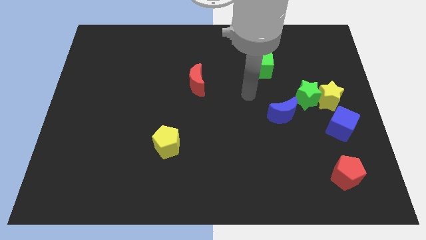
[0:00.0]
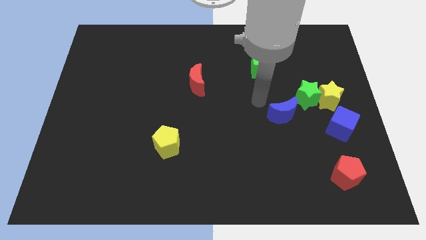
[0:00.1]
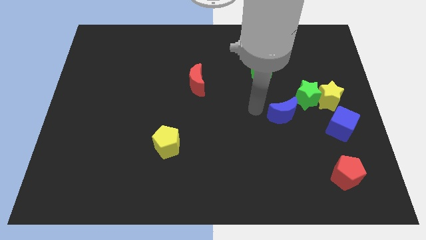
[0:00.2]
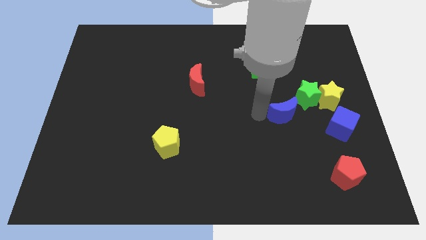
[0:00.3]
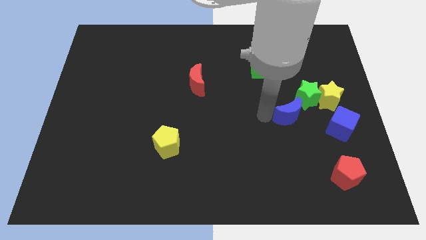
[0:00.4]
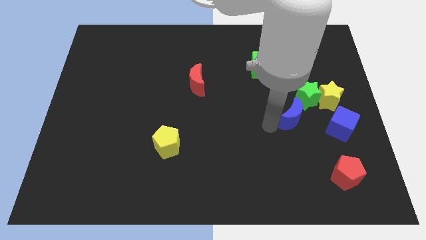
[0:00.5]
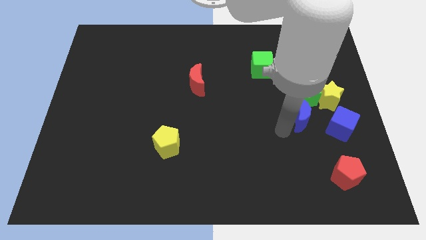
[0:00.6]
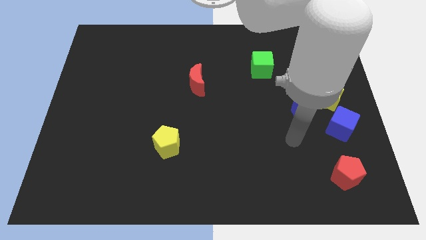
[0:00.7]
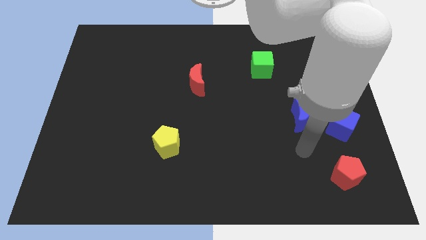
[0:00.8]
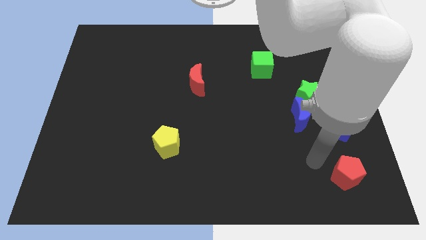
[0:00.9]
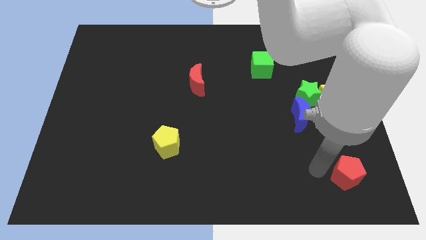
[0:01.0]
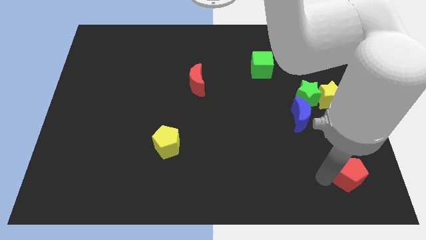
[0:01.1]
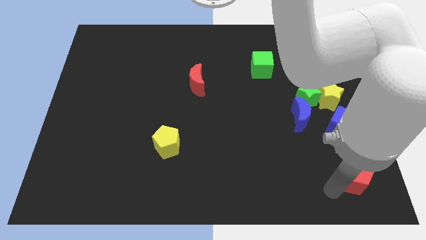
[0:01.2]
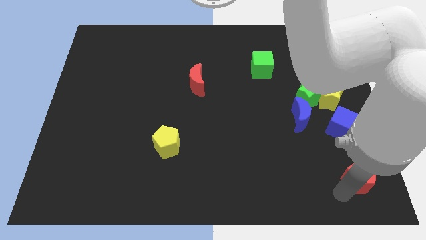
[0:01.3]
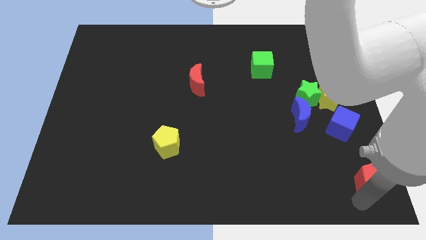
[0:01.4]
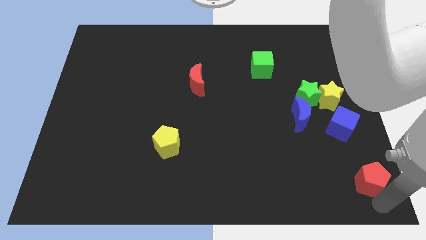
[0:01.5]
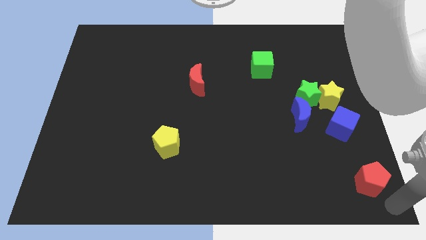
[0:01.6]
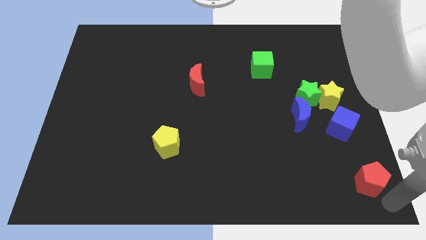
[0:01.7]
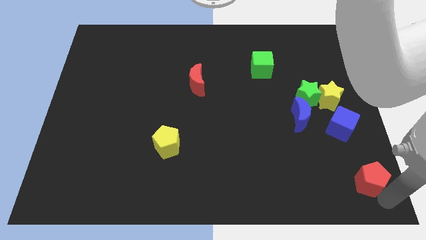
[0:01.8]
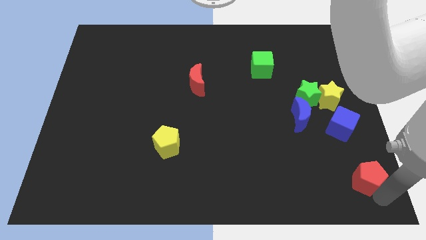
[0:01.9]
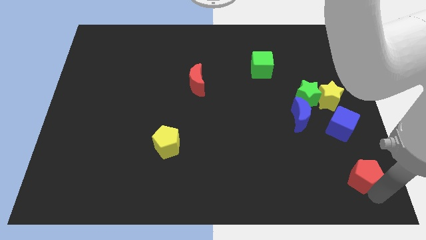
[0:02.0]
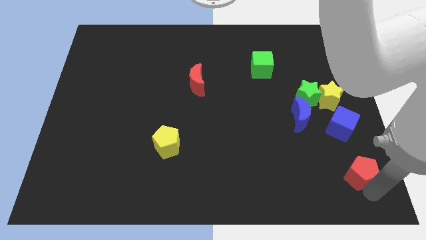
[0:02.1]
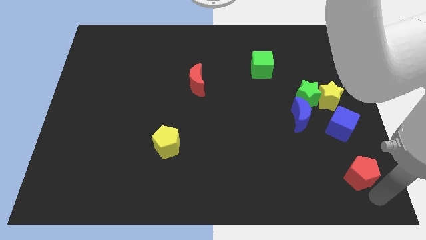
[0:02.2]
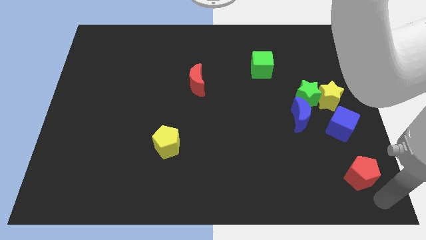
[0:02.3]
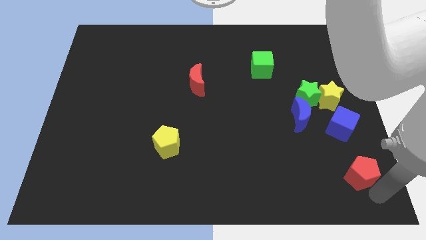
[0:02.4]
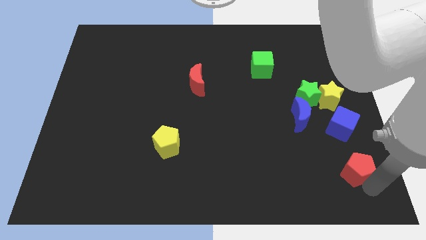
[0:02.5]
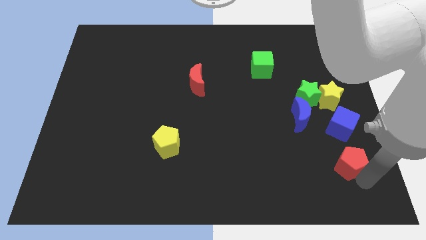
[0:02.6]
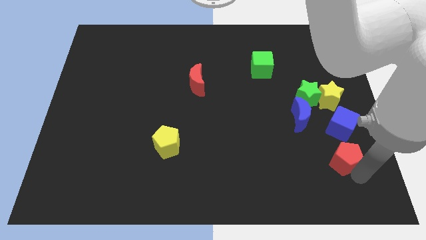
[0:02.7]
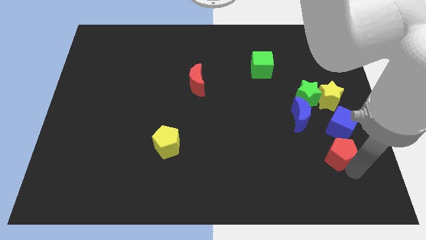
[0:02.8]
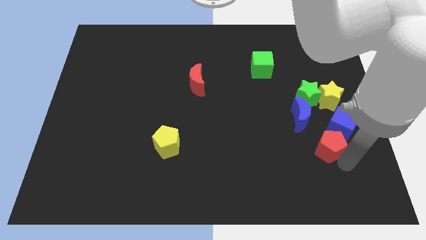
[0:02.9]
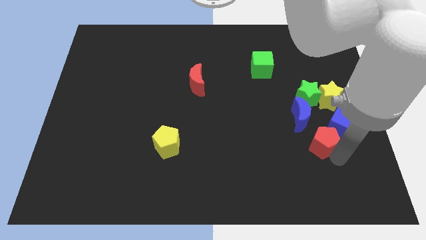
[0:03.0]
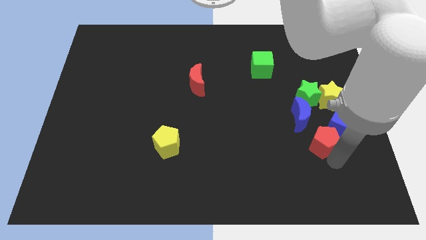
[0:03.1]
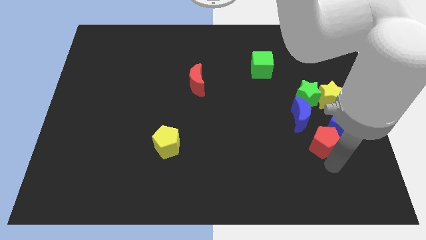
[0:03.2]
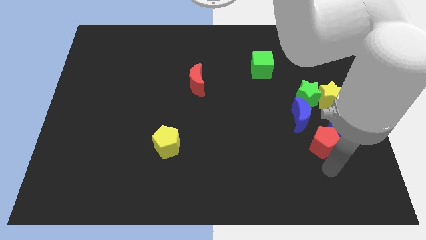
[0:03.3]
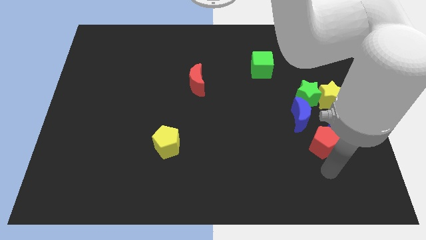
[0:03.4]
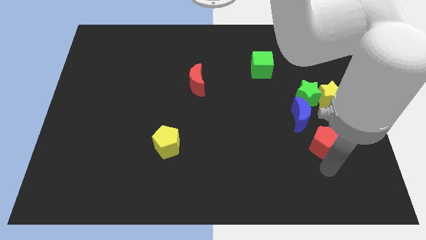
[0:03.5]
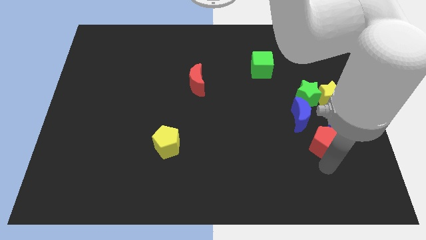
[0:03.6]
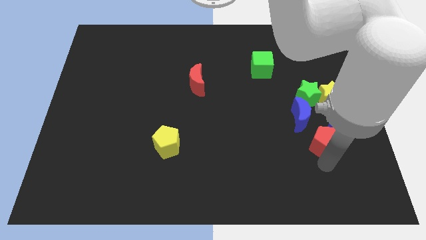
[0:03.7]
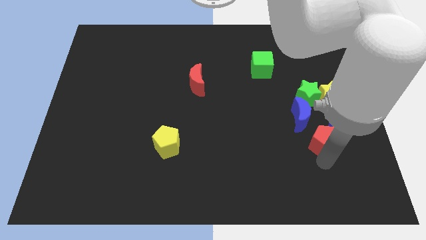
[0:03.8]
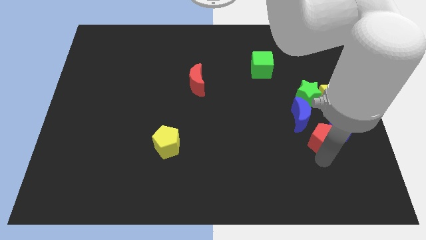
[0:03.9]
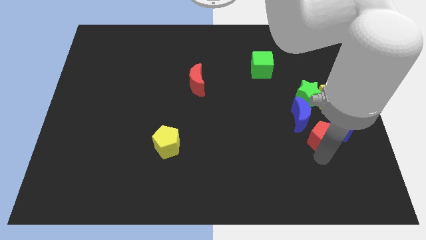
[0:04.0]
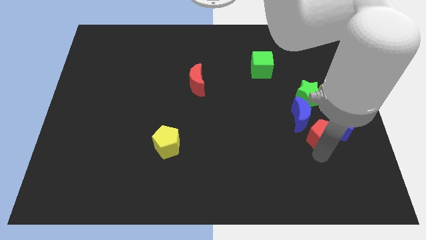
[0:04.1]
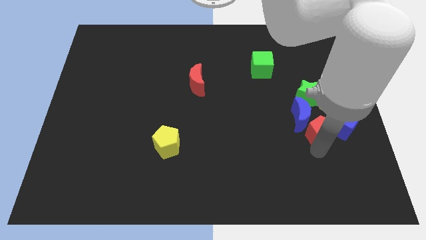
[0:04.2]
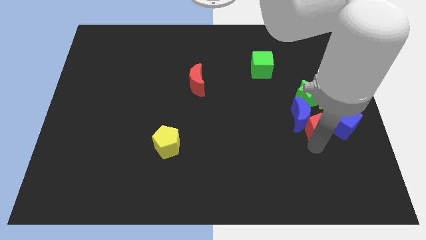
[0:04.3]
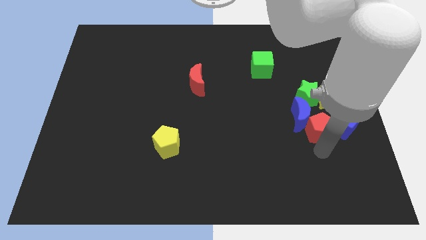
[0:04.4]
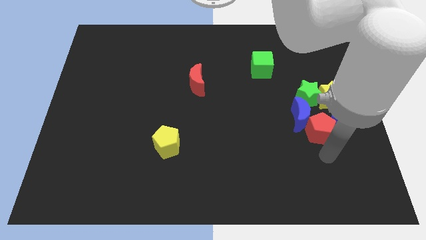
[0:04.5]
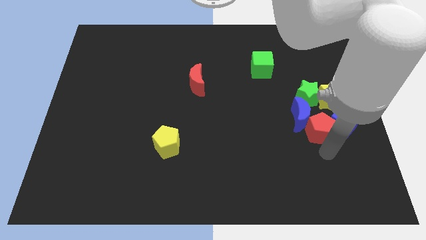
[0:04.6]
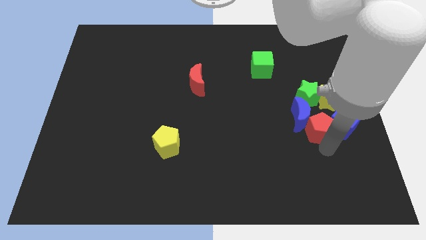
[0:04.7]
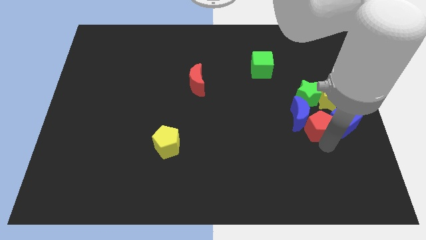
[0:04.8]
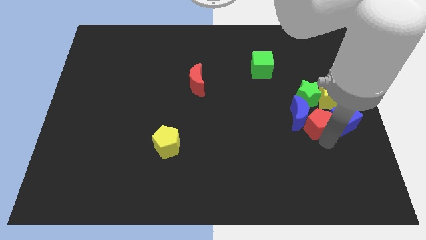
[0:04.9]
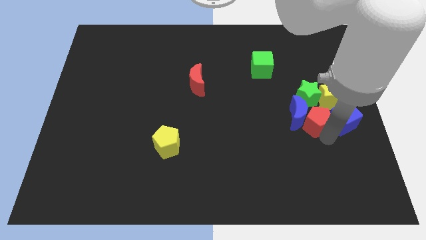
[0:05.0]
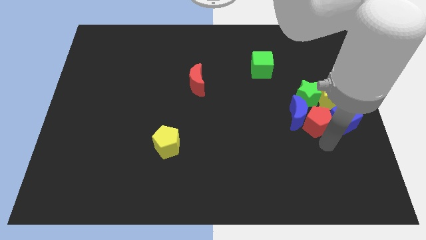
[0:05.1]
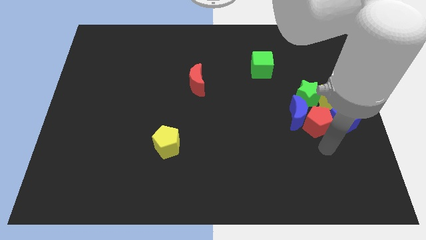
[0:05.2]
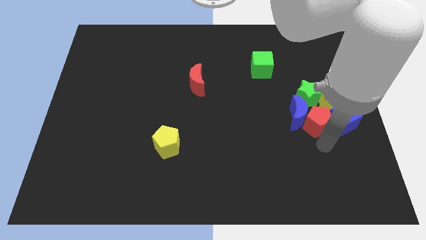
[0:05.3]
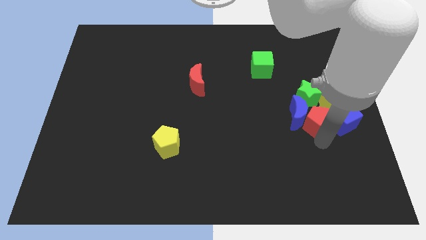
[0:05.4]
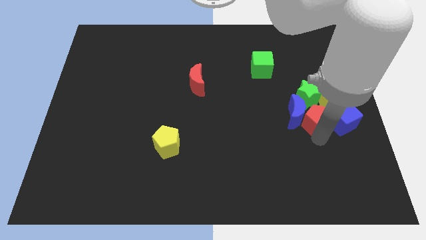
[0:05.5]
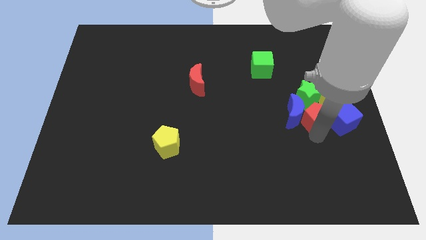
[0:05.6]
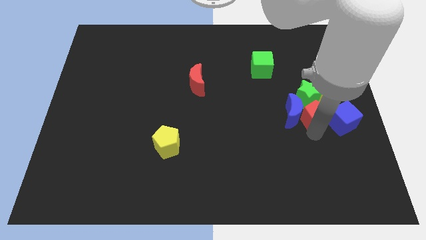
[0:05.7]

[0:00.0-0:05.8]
move the red pentagon close to the green star

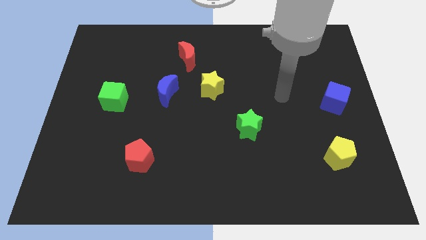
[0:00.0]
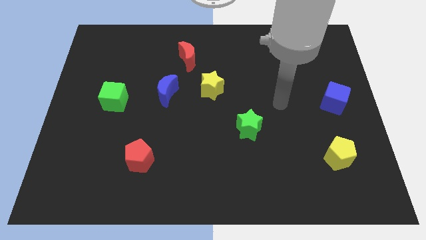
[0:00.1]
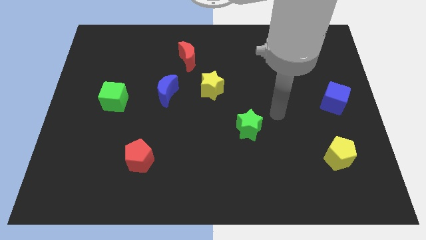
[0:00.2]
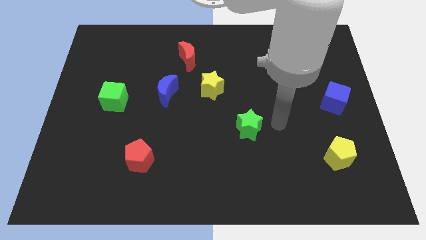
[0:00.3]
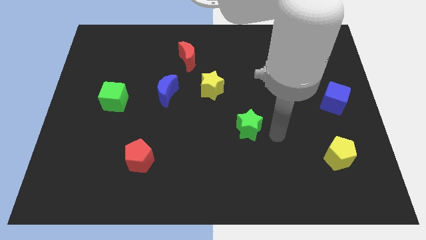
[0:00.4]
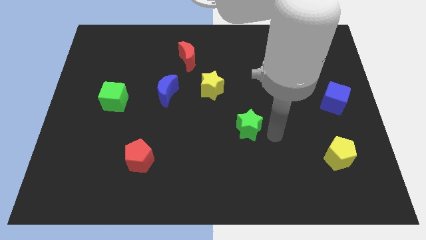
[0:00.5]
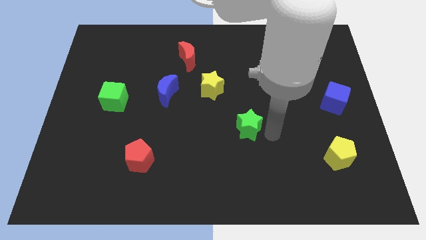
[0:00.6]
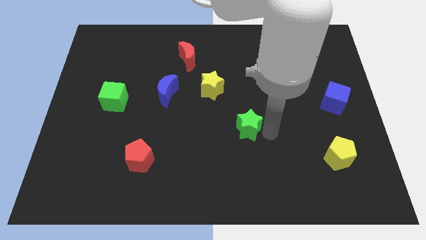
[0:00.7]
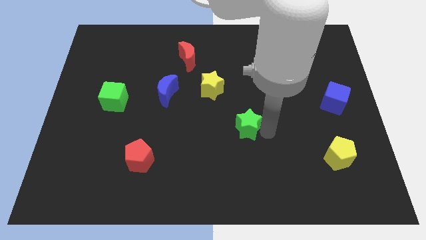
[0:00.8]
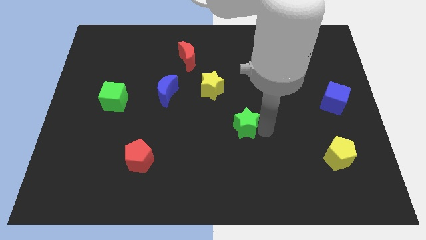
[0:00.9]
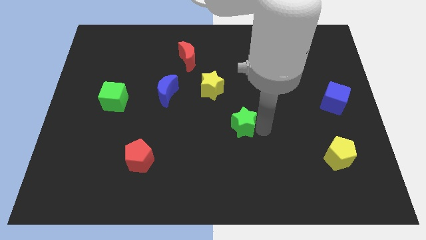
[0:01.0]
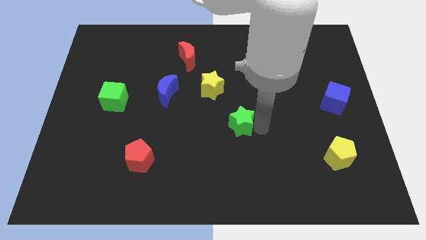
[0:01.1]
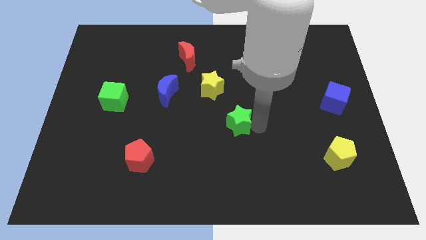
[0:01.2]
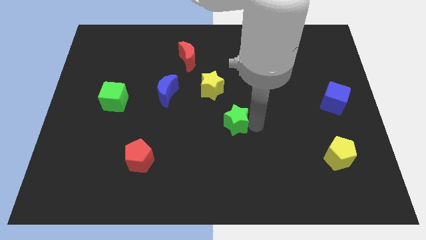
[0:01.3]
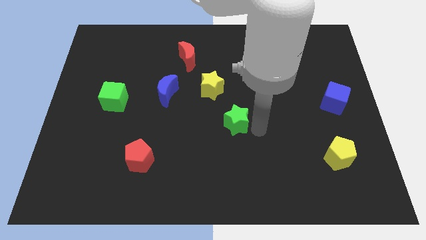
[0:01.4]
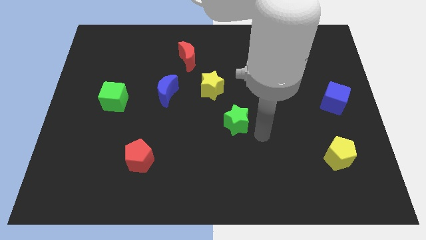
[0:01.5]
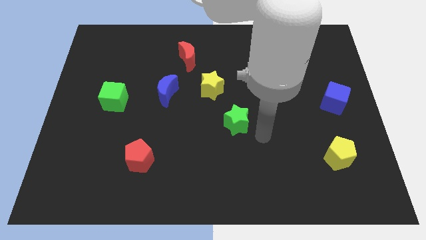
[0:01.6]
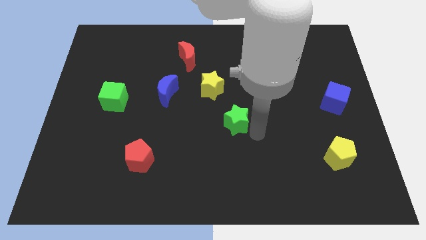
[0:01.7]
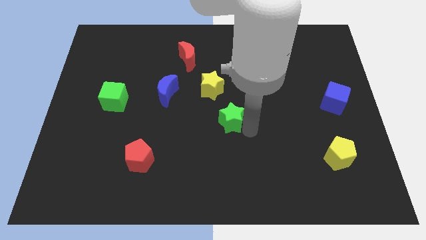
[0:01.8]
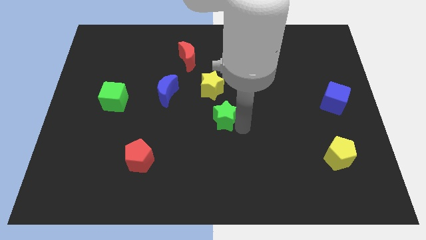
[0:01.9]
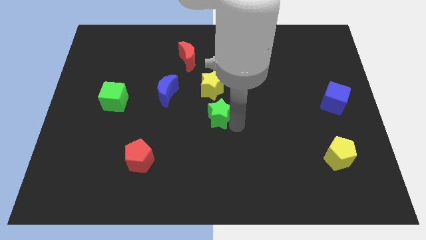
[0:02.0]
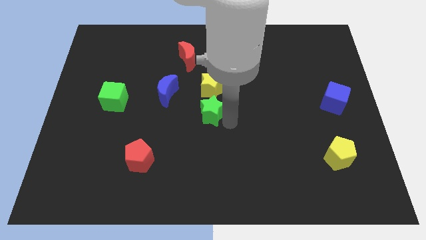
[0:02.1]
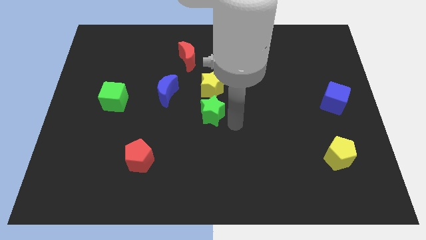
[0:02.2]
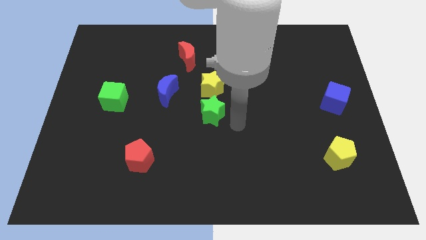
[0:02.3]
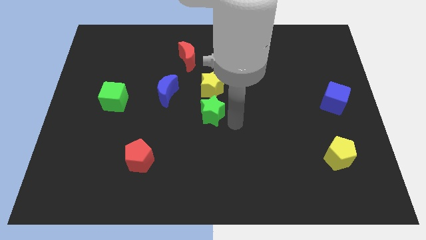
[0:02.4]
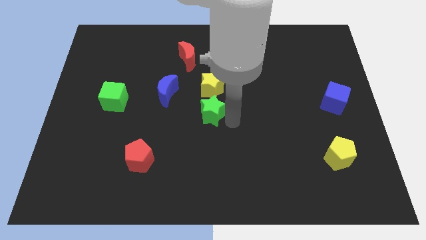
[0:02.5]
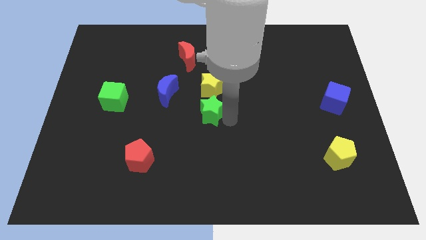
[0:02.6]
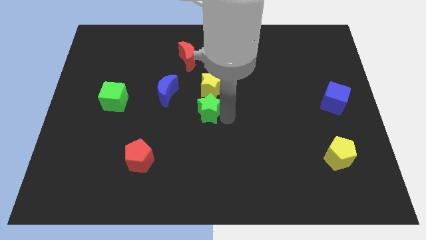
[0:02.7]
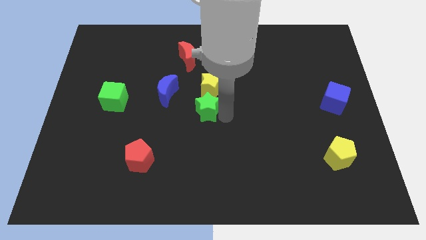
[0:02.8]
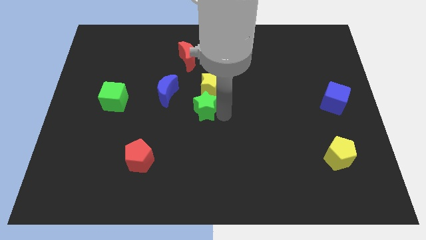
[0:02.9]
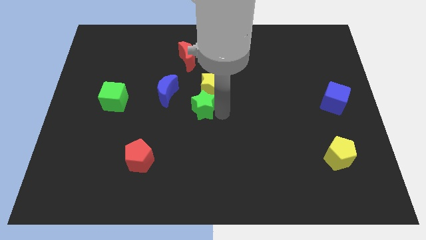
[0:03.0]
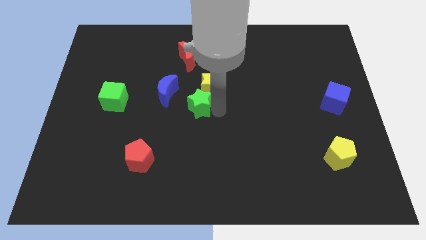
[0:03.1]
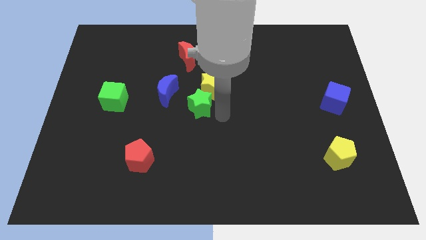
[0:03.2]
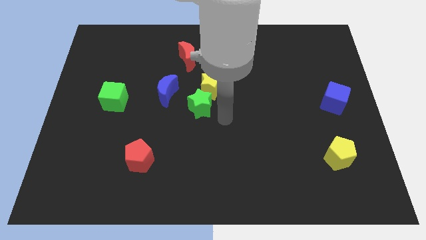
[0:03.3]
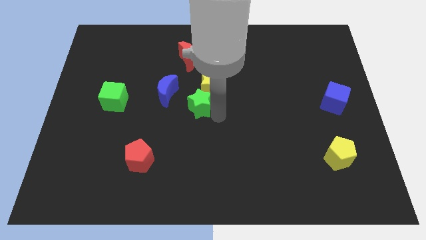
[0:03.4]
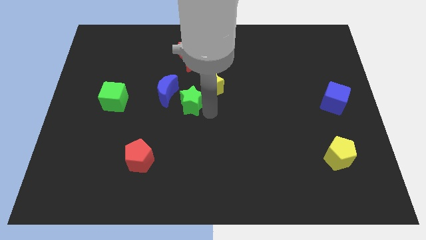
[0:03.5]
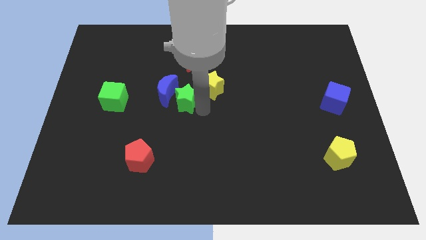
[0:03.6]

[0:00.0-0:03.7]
put the green star close to the blue moon
